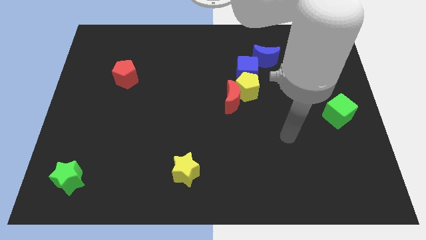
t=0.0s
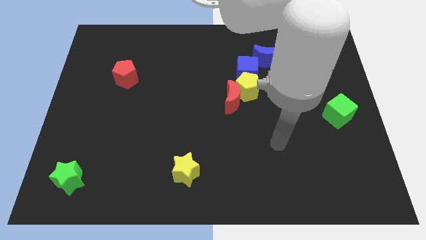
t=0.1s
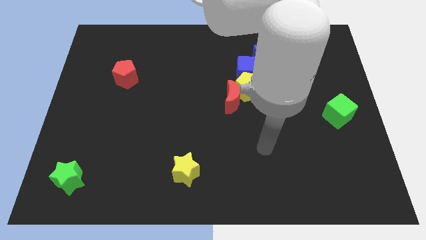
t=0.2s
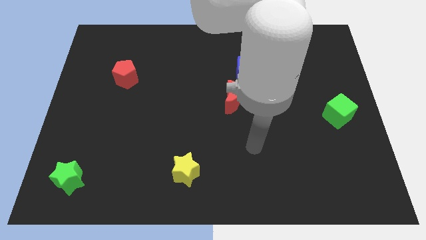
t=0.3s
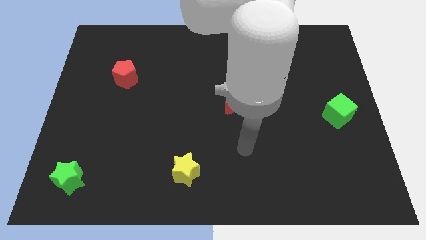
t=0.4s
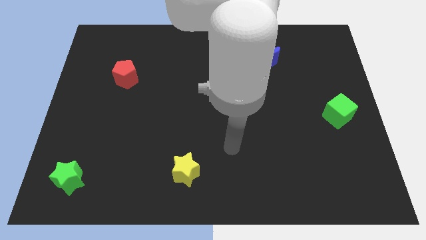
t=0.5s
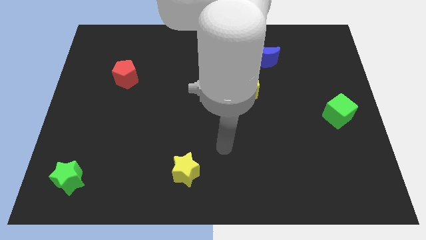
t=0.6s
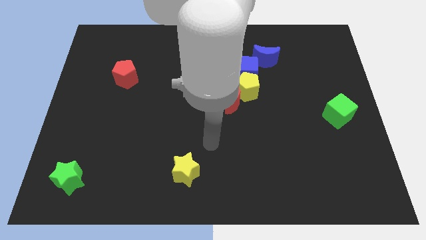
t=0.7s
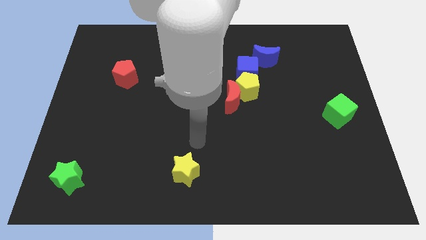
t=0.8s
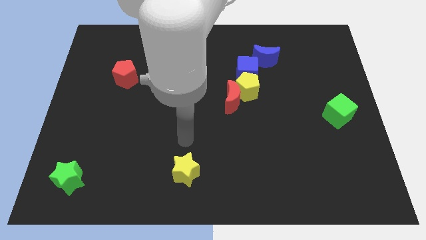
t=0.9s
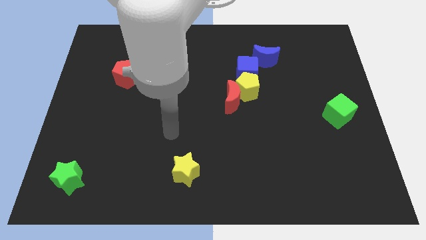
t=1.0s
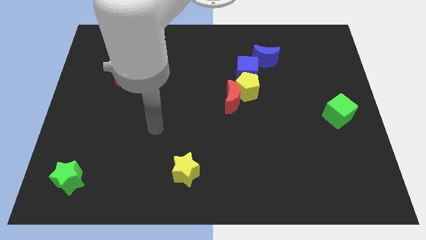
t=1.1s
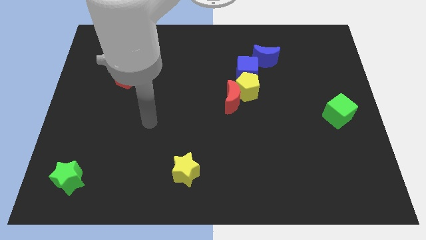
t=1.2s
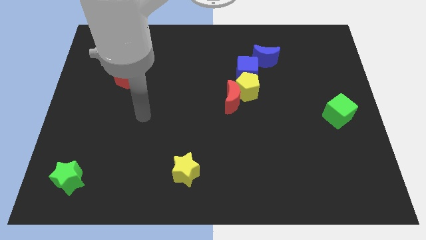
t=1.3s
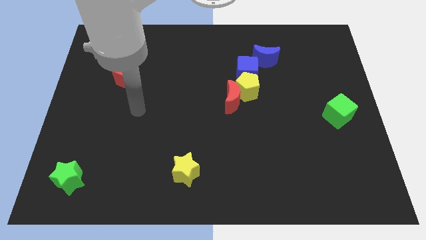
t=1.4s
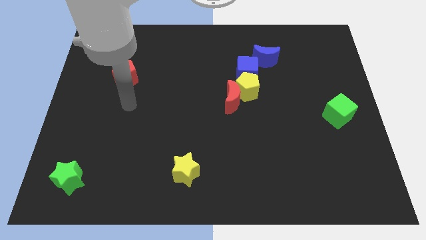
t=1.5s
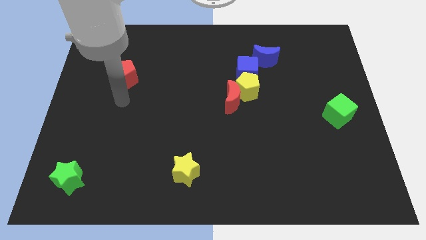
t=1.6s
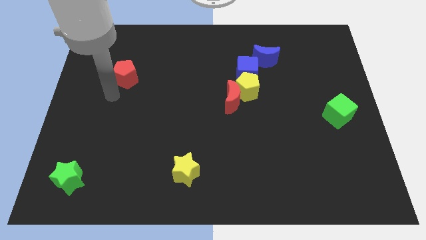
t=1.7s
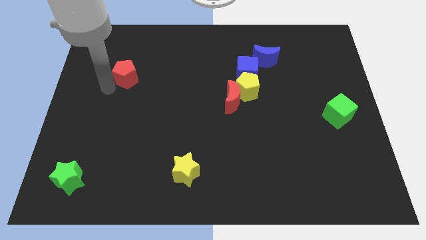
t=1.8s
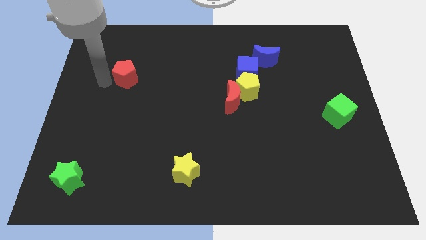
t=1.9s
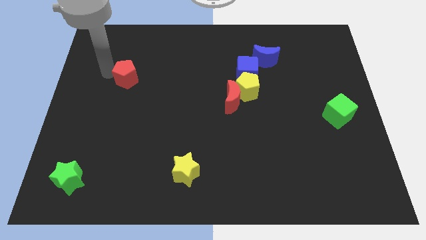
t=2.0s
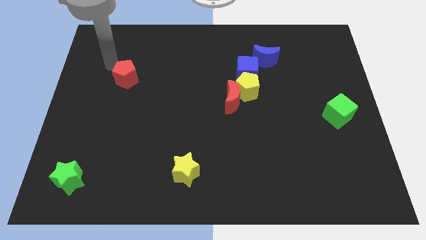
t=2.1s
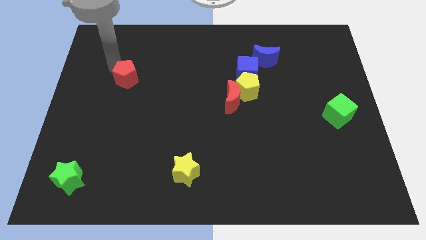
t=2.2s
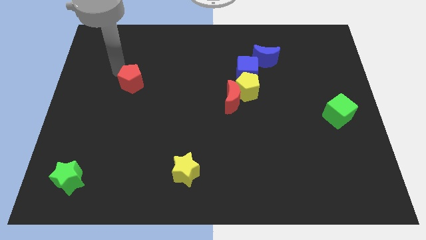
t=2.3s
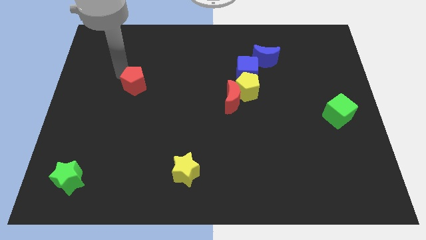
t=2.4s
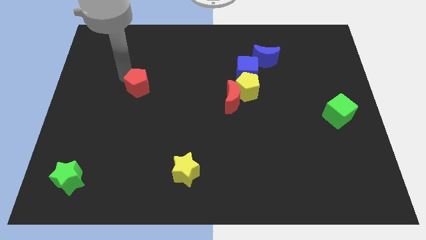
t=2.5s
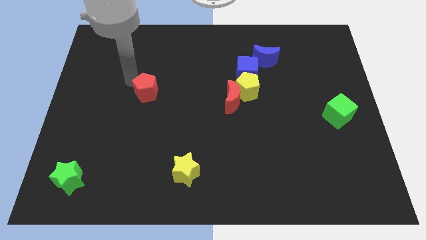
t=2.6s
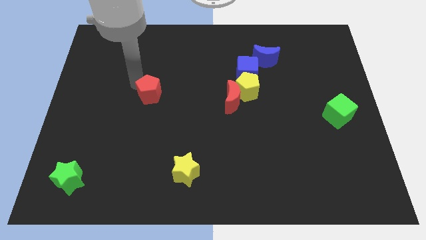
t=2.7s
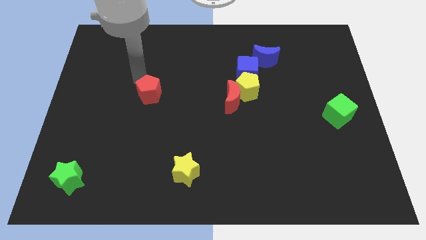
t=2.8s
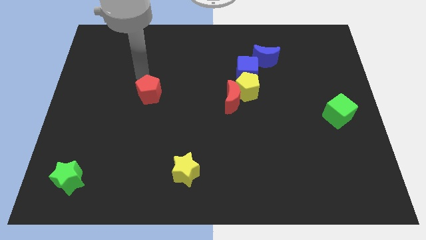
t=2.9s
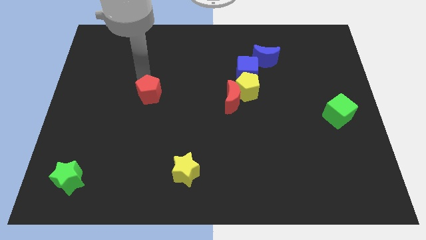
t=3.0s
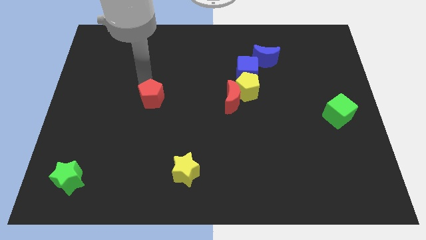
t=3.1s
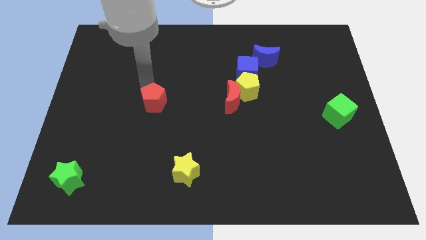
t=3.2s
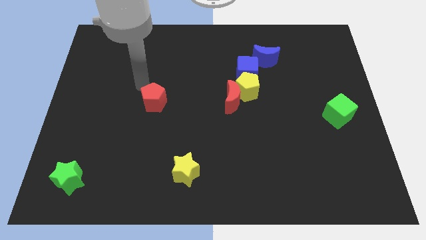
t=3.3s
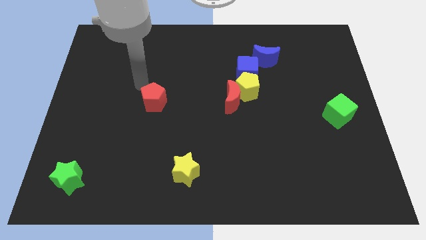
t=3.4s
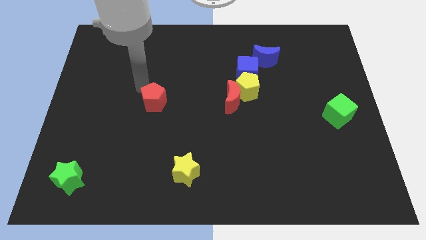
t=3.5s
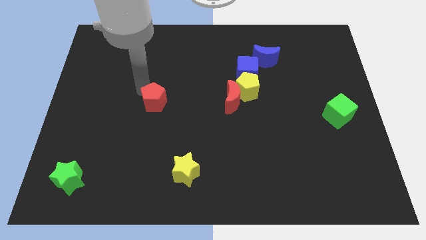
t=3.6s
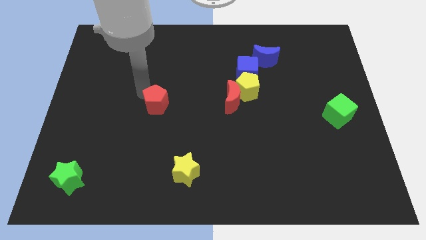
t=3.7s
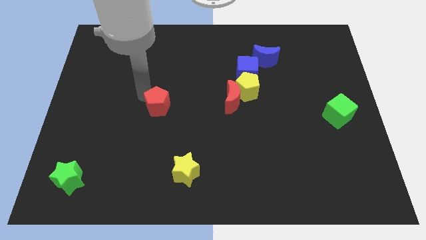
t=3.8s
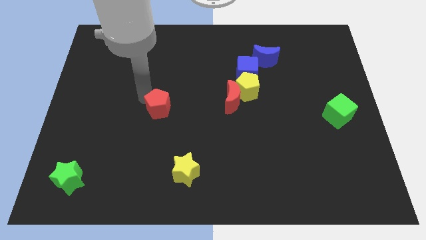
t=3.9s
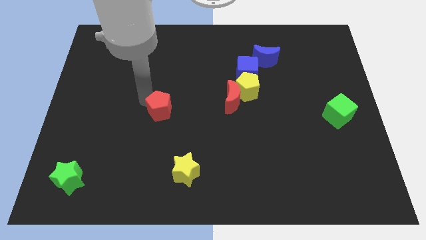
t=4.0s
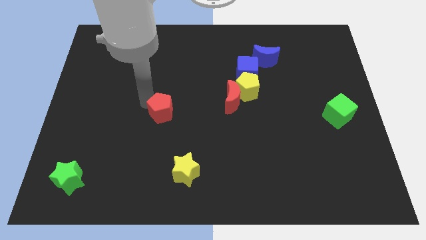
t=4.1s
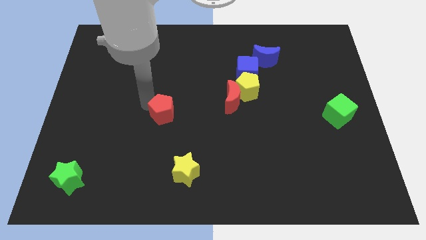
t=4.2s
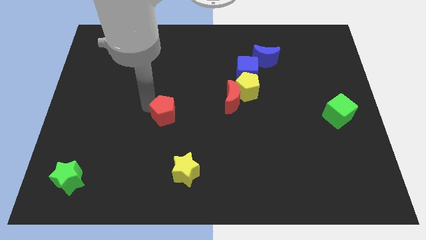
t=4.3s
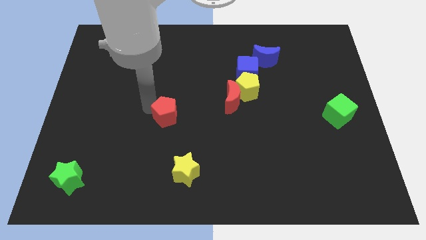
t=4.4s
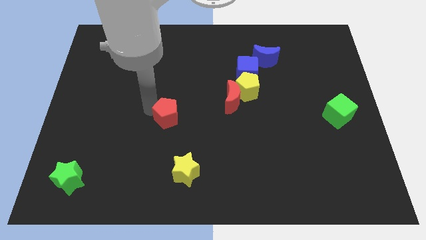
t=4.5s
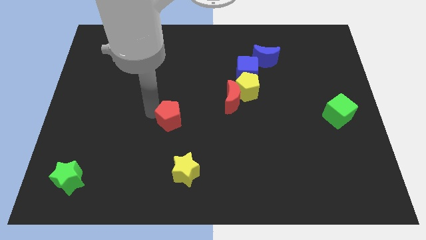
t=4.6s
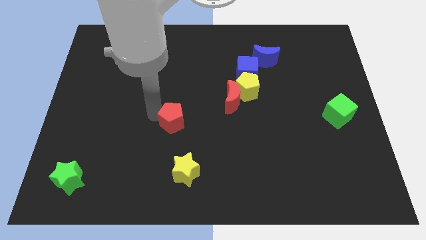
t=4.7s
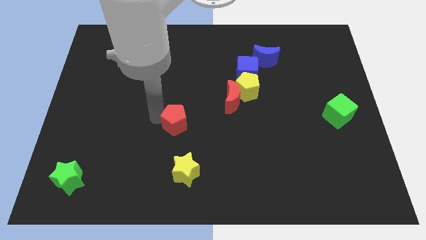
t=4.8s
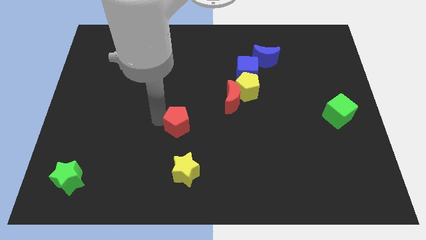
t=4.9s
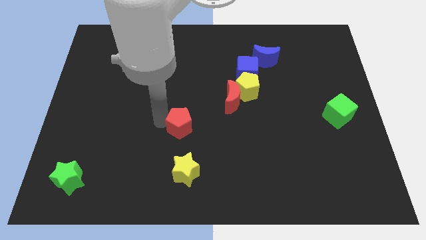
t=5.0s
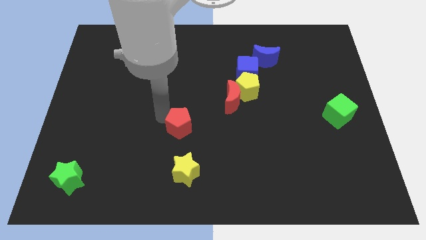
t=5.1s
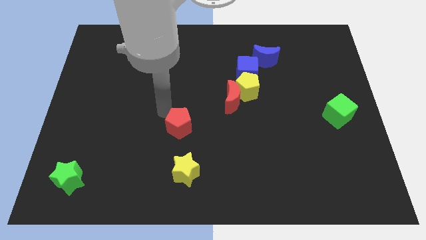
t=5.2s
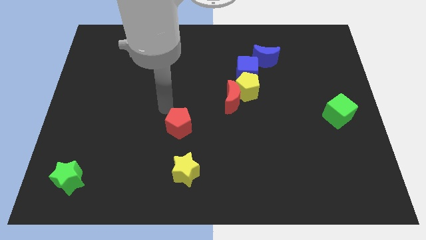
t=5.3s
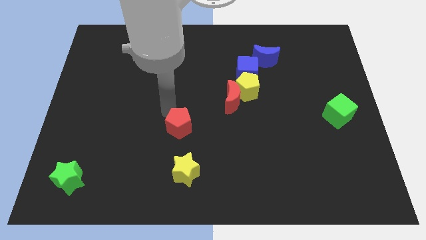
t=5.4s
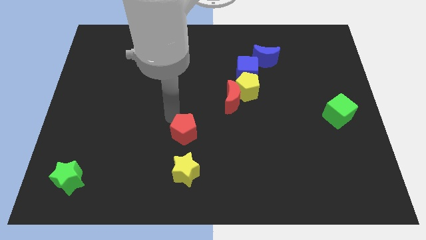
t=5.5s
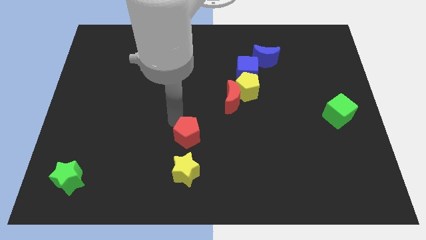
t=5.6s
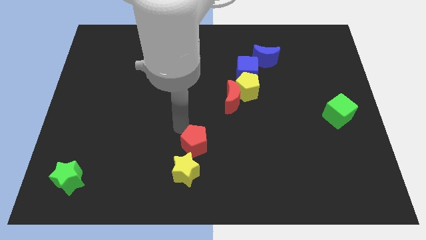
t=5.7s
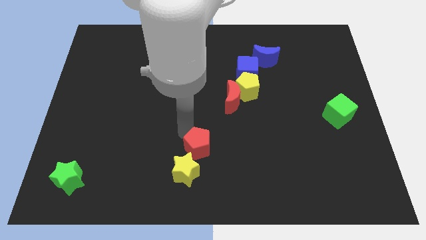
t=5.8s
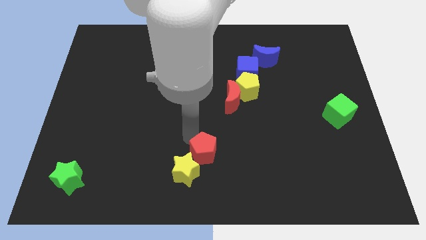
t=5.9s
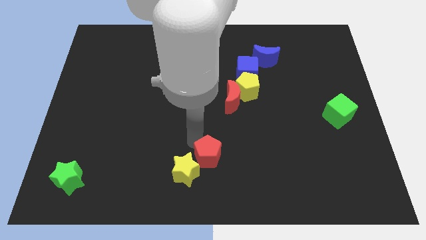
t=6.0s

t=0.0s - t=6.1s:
put the red pentagon to the bottom side

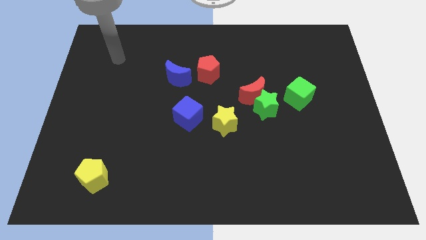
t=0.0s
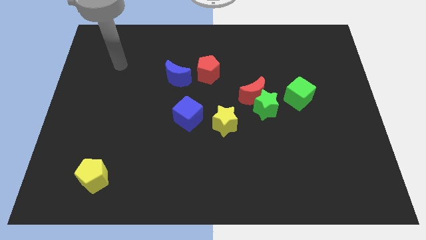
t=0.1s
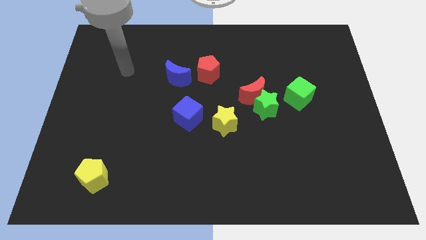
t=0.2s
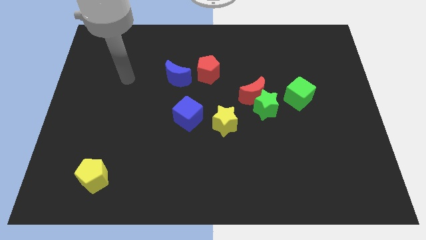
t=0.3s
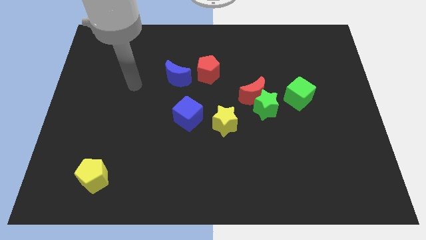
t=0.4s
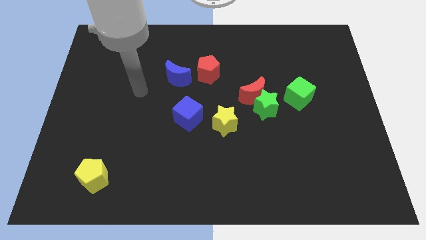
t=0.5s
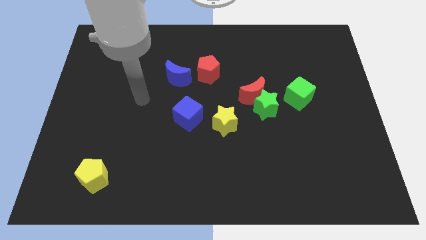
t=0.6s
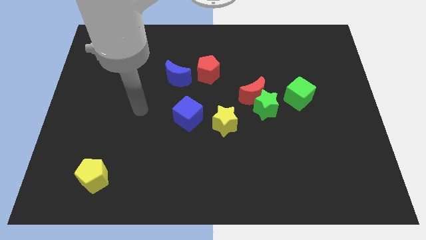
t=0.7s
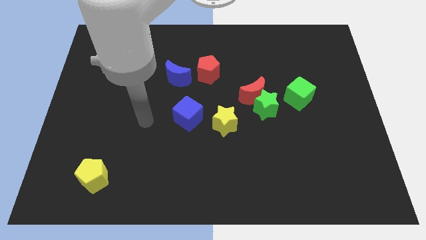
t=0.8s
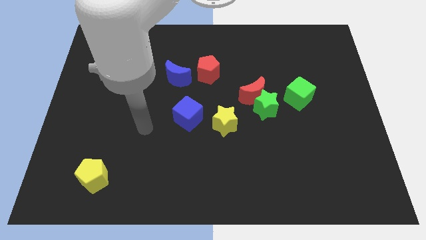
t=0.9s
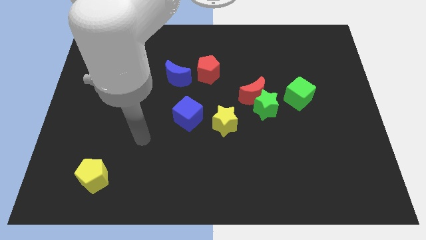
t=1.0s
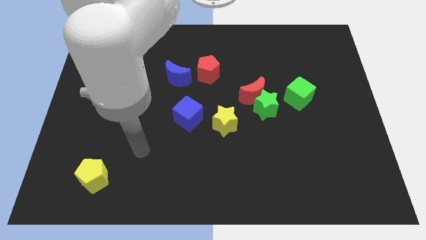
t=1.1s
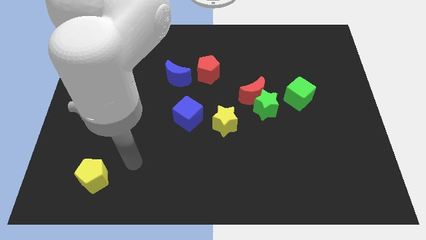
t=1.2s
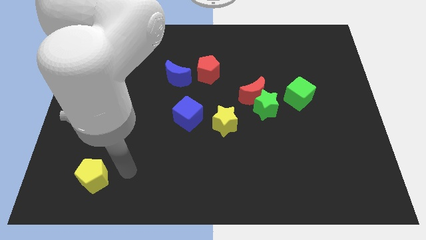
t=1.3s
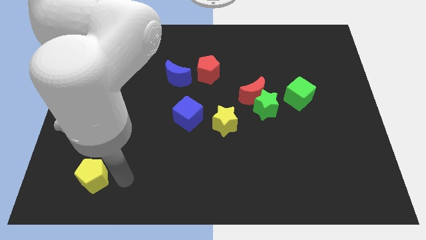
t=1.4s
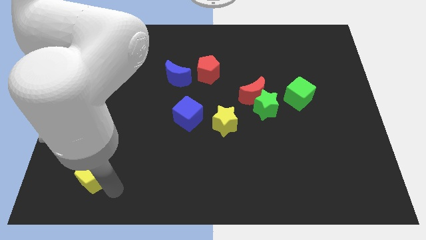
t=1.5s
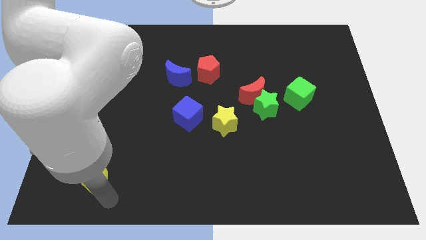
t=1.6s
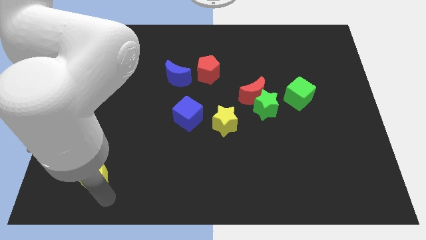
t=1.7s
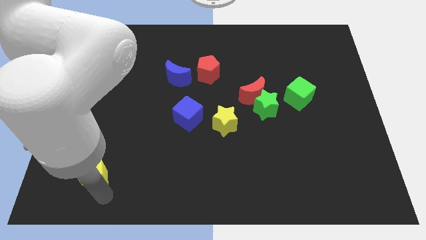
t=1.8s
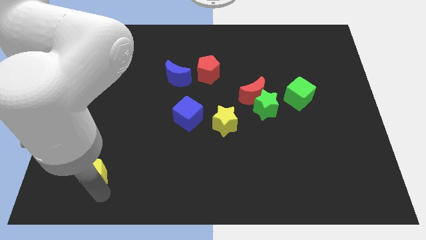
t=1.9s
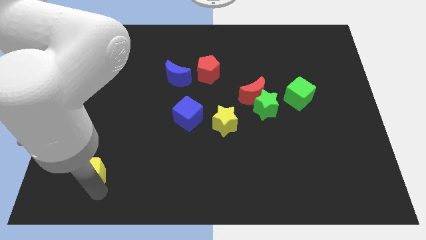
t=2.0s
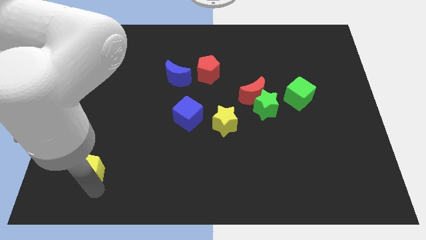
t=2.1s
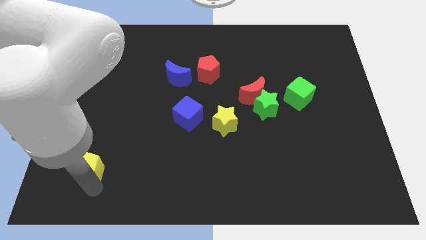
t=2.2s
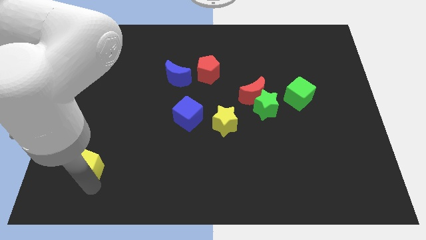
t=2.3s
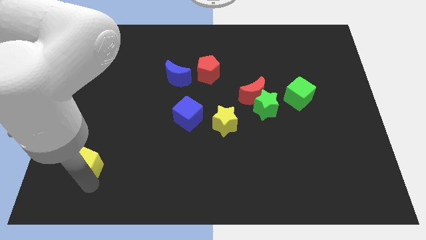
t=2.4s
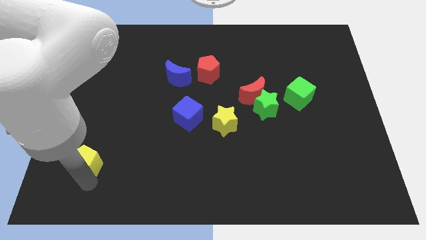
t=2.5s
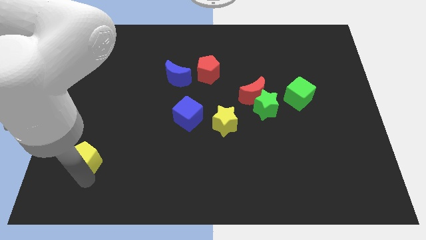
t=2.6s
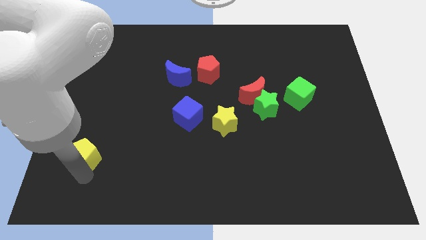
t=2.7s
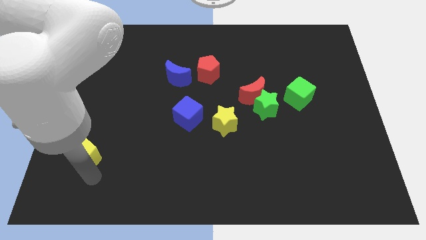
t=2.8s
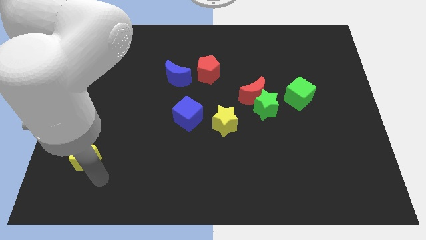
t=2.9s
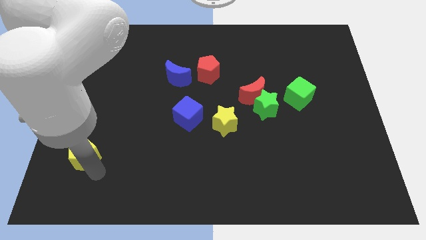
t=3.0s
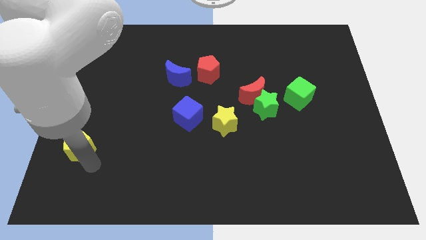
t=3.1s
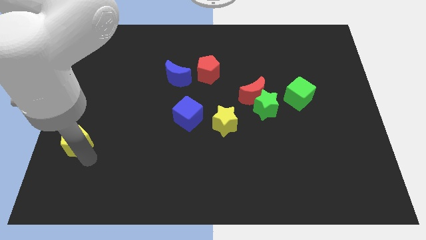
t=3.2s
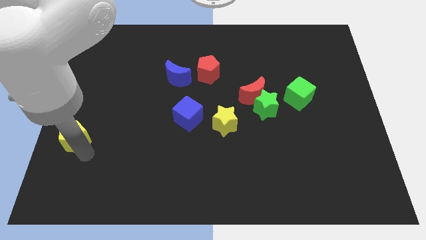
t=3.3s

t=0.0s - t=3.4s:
move the yellow pentagon to the left side of the board
